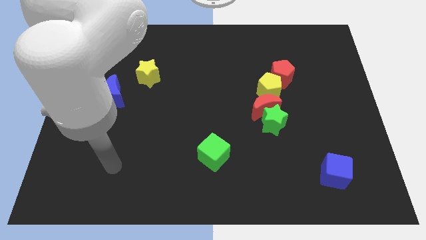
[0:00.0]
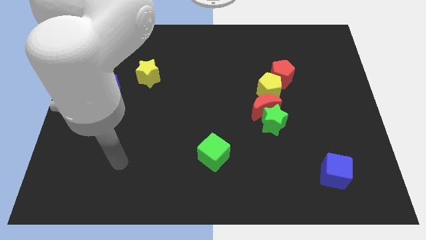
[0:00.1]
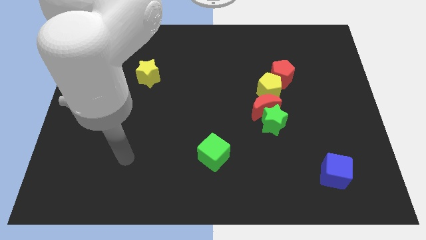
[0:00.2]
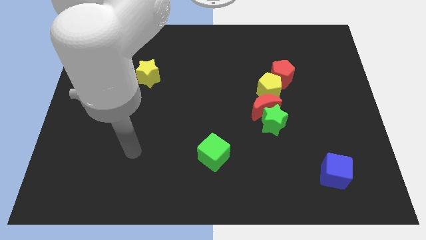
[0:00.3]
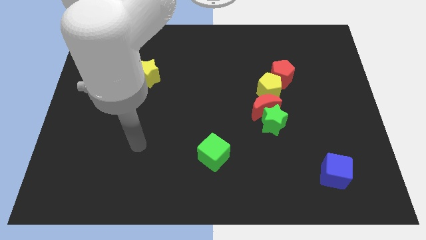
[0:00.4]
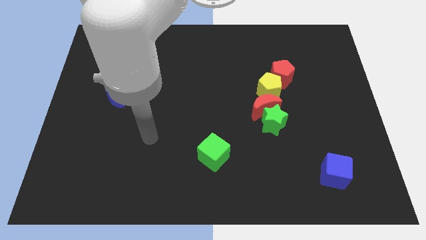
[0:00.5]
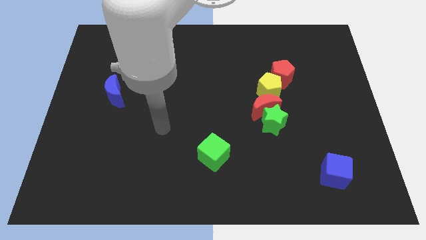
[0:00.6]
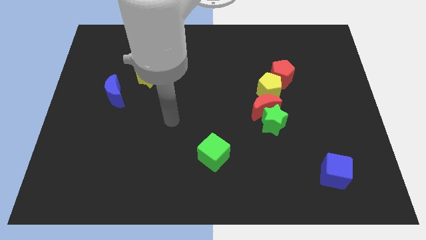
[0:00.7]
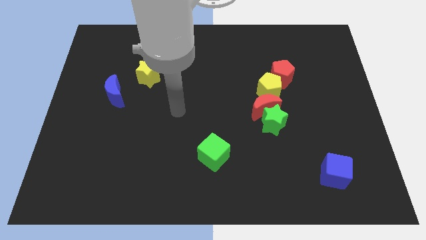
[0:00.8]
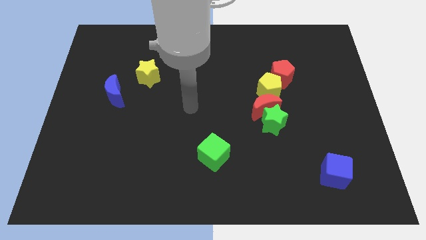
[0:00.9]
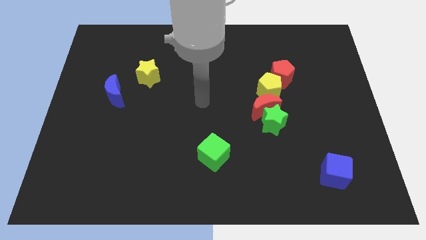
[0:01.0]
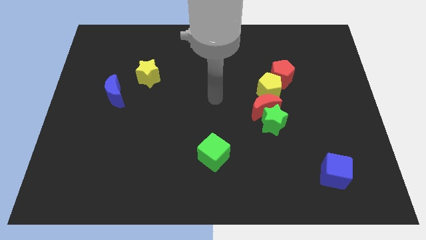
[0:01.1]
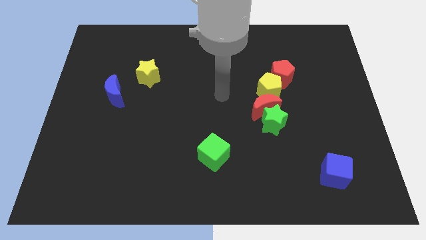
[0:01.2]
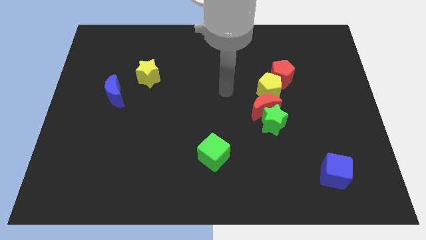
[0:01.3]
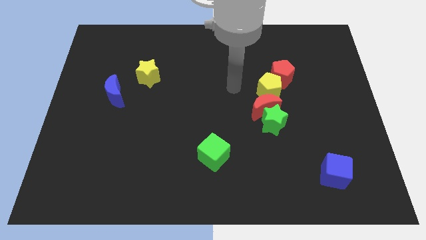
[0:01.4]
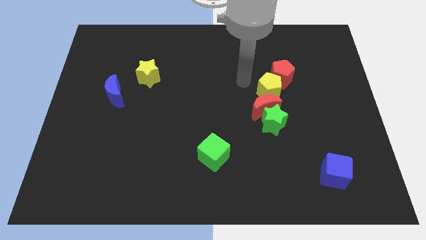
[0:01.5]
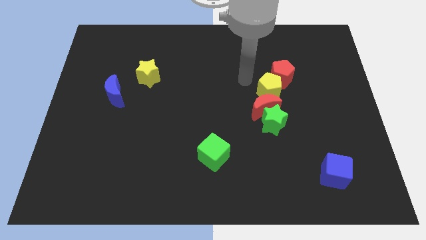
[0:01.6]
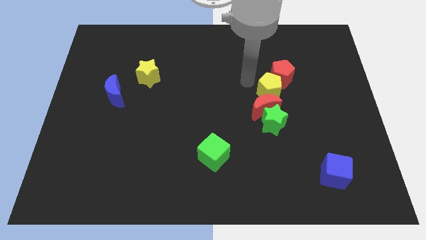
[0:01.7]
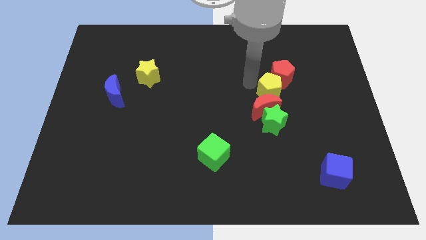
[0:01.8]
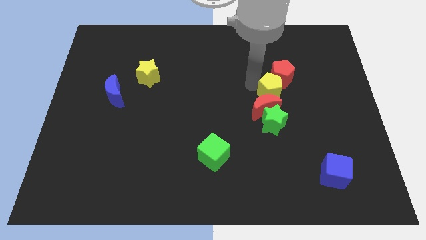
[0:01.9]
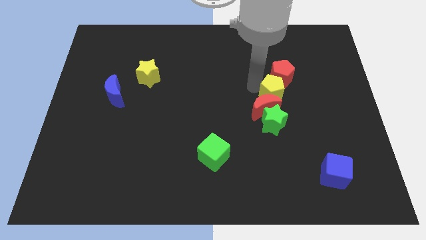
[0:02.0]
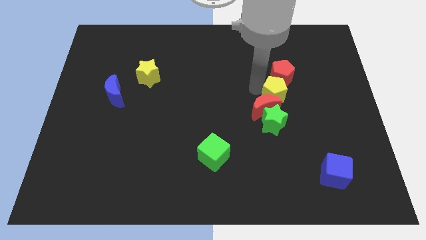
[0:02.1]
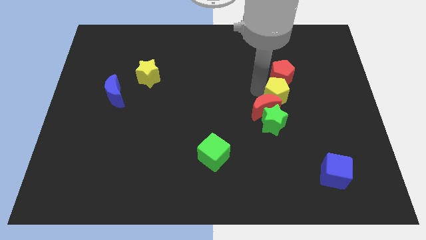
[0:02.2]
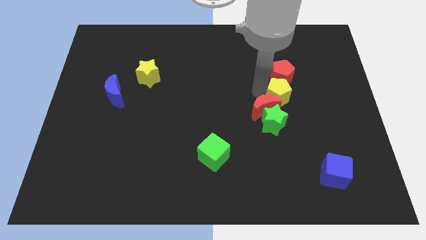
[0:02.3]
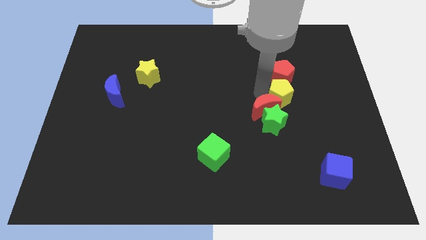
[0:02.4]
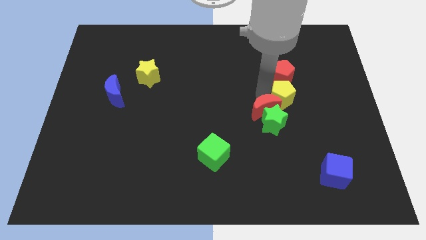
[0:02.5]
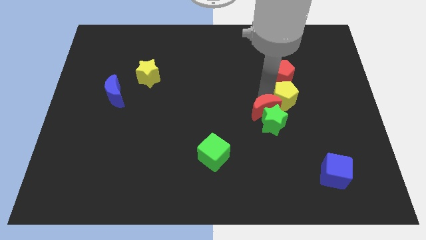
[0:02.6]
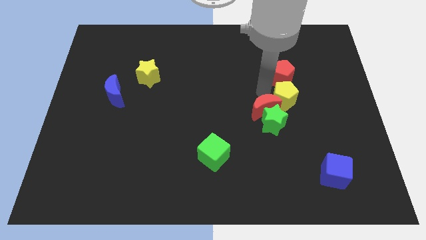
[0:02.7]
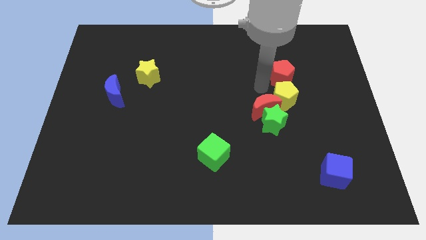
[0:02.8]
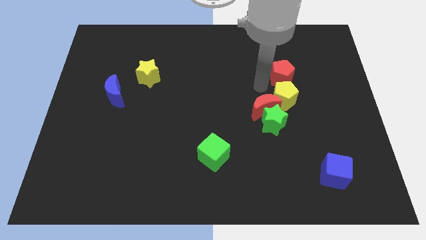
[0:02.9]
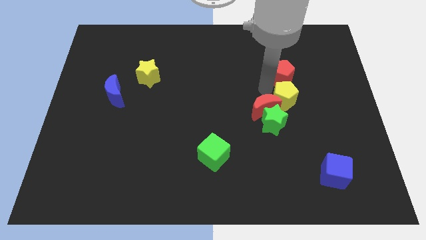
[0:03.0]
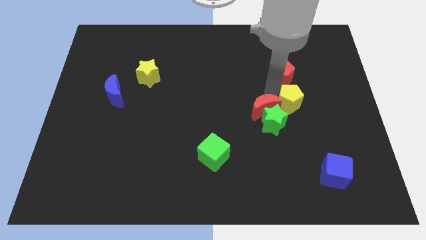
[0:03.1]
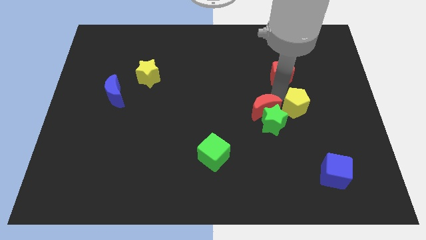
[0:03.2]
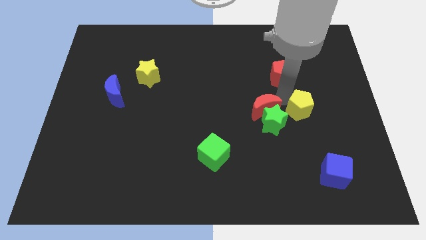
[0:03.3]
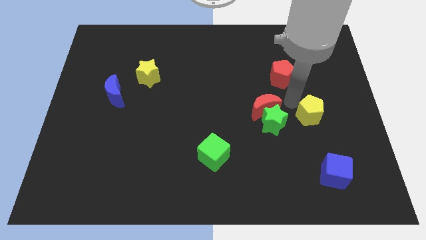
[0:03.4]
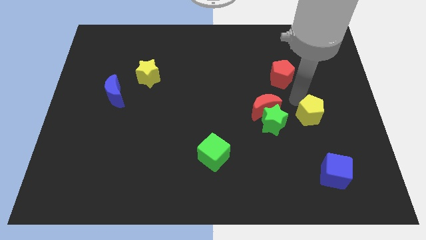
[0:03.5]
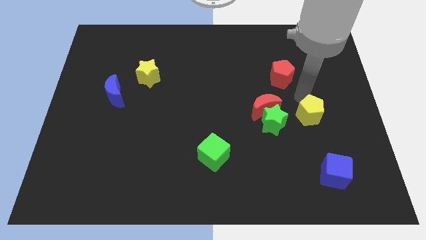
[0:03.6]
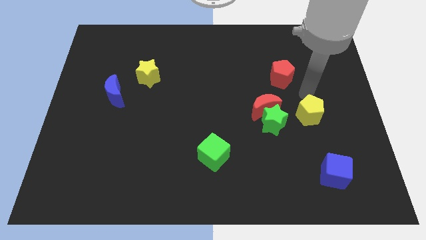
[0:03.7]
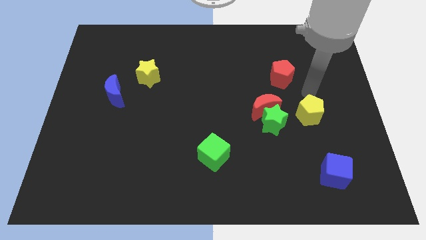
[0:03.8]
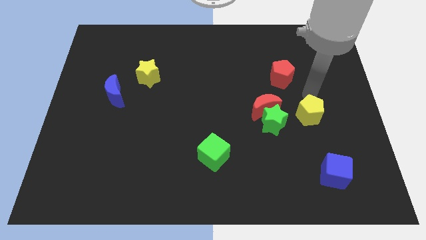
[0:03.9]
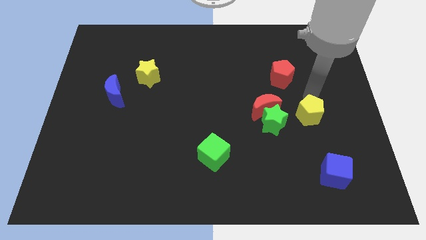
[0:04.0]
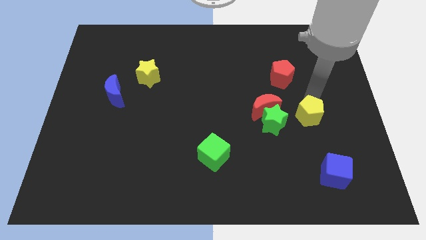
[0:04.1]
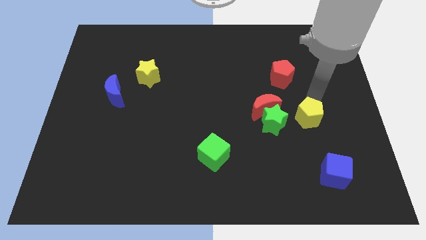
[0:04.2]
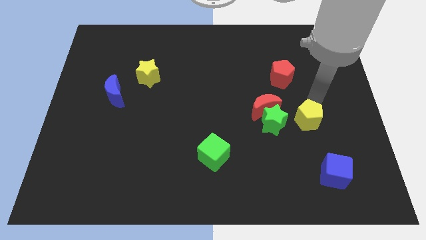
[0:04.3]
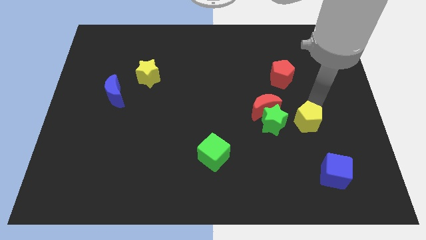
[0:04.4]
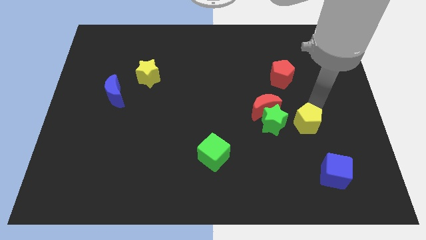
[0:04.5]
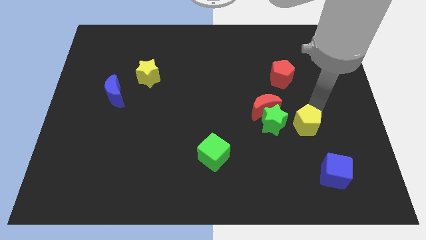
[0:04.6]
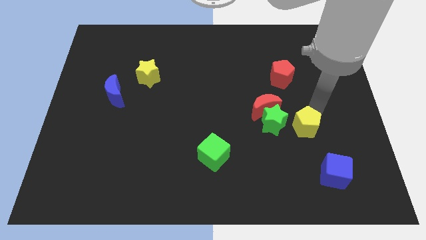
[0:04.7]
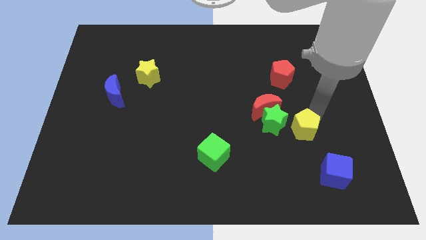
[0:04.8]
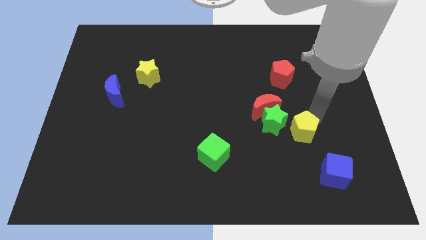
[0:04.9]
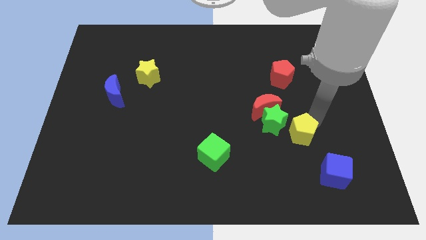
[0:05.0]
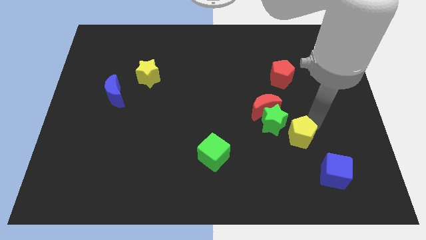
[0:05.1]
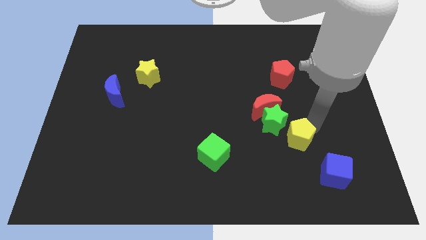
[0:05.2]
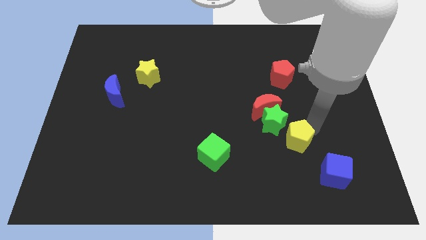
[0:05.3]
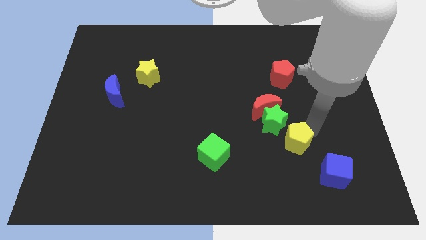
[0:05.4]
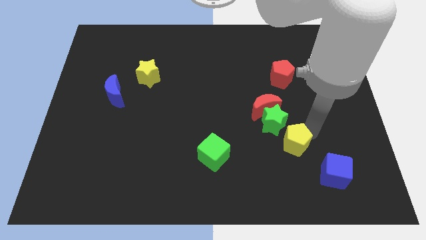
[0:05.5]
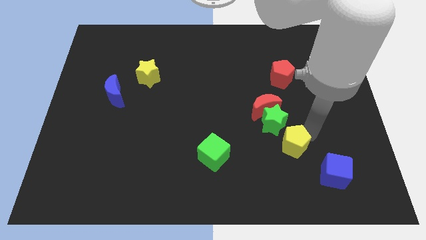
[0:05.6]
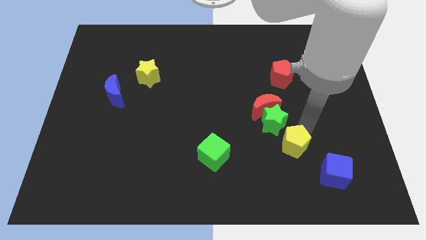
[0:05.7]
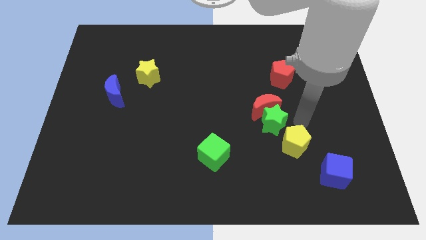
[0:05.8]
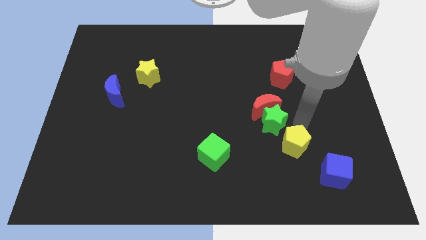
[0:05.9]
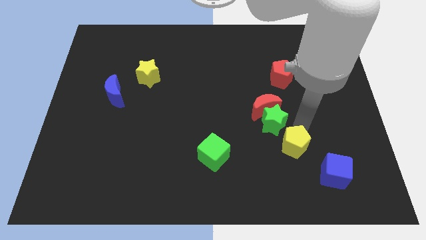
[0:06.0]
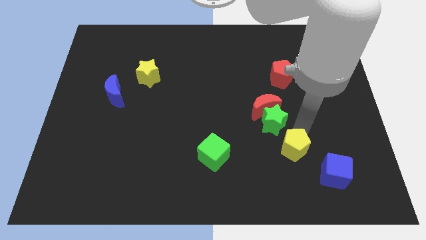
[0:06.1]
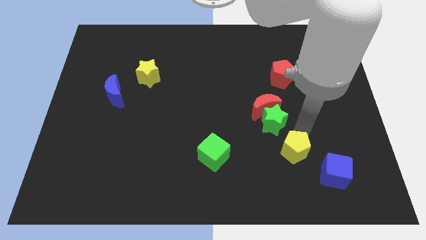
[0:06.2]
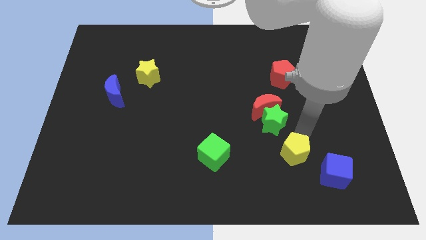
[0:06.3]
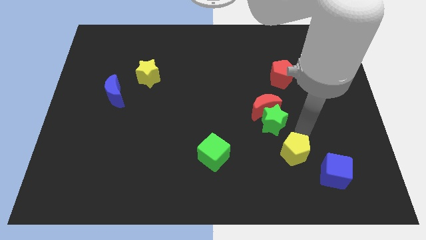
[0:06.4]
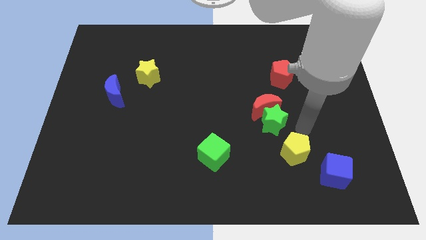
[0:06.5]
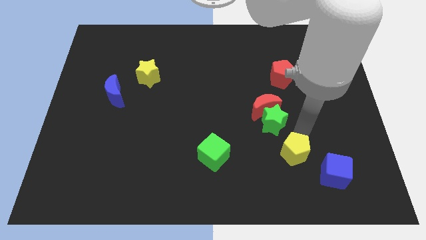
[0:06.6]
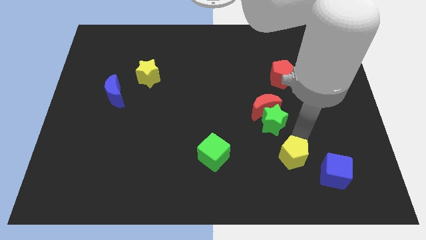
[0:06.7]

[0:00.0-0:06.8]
slide the yellow pentagon to the left of the blue cube
